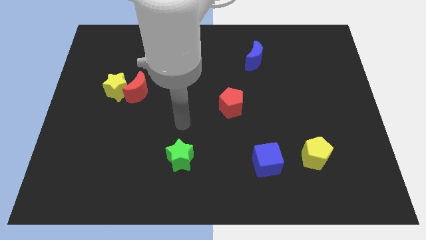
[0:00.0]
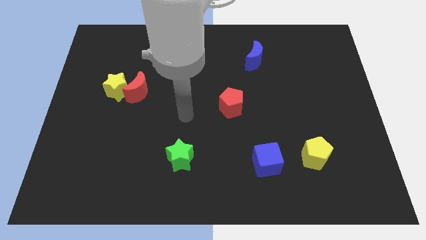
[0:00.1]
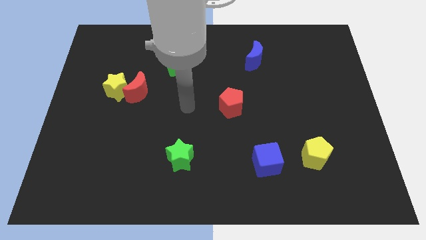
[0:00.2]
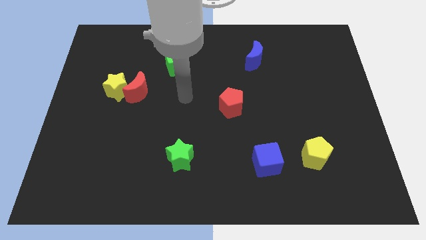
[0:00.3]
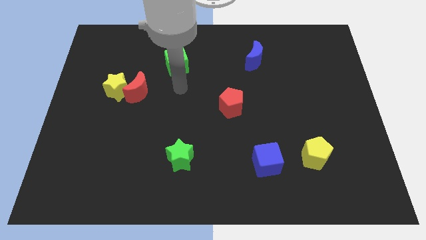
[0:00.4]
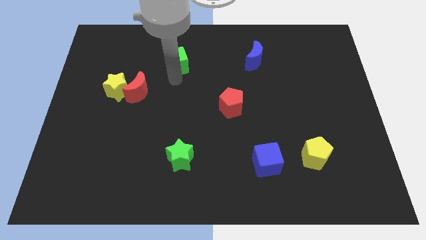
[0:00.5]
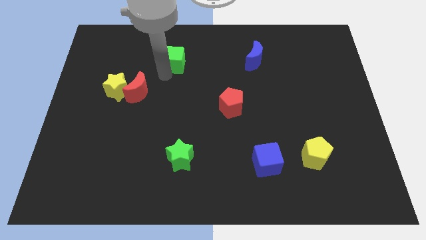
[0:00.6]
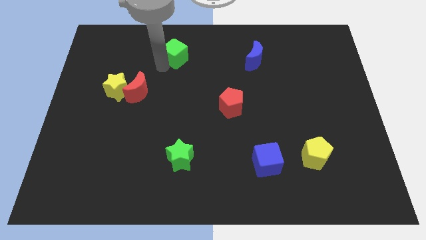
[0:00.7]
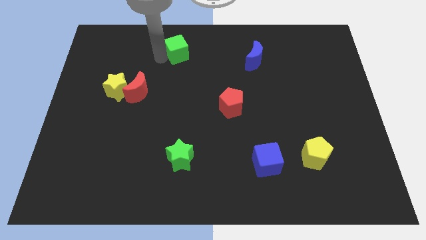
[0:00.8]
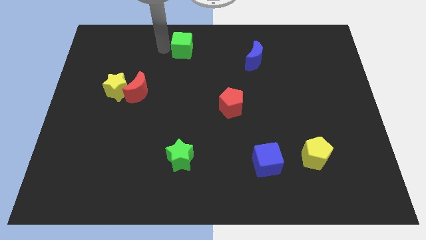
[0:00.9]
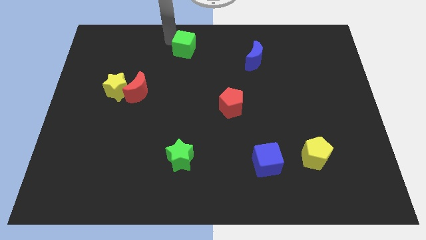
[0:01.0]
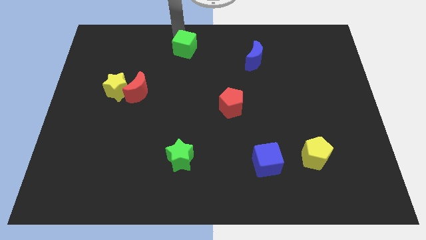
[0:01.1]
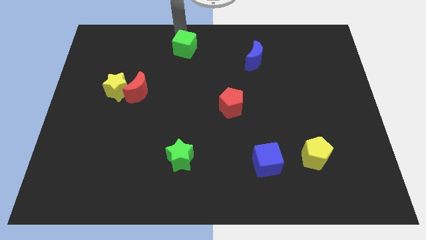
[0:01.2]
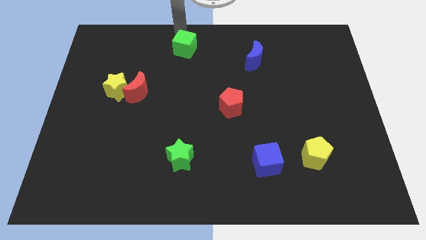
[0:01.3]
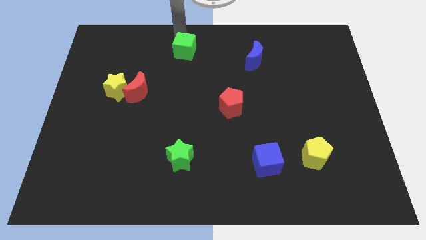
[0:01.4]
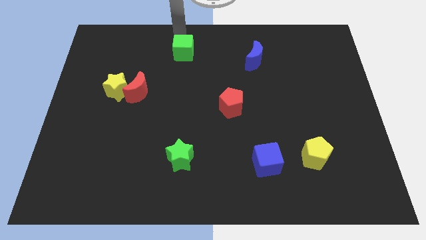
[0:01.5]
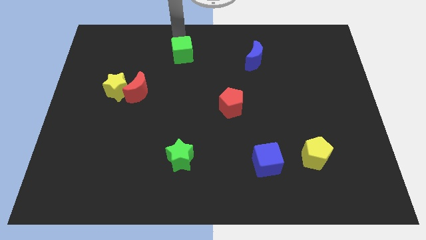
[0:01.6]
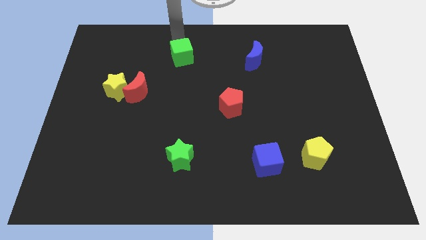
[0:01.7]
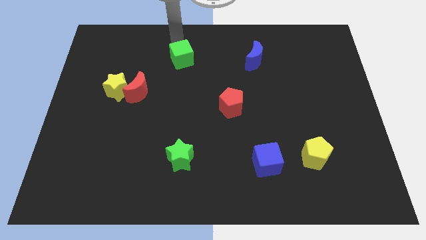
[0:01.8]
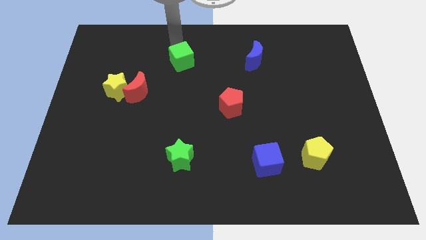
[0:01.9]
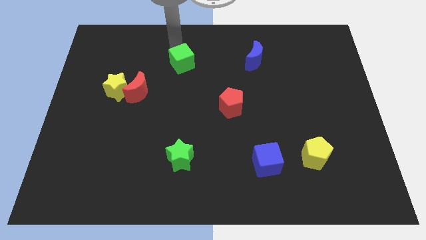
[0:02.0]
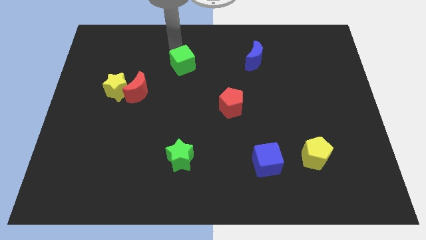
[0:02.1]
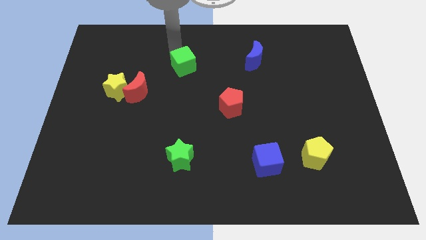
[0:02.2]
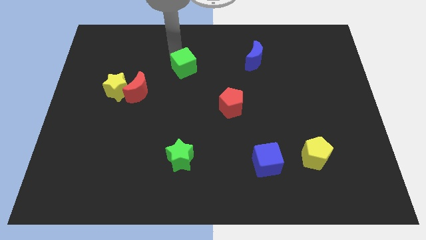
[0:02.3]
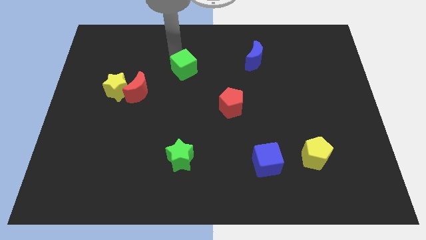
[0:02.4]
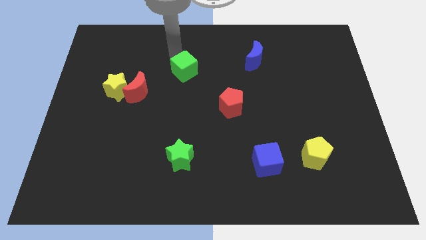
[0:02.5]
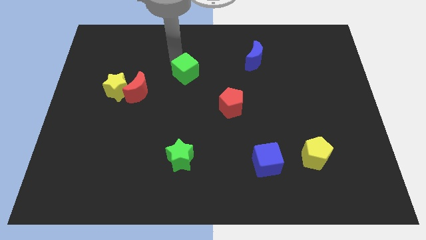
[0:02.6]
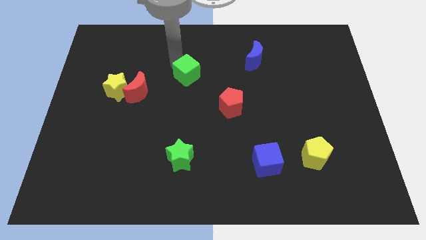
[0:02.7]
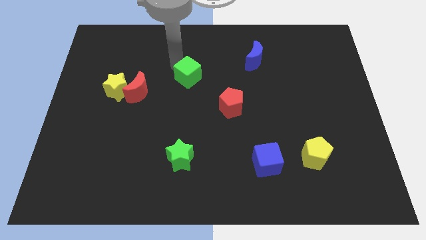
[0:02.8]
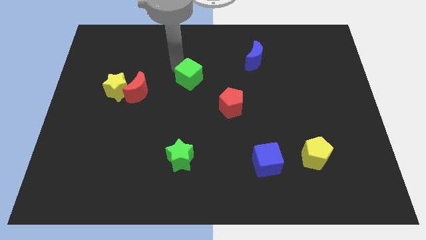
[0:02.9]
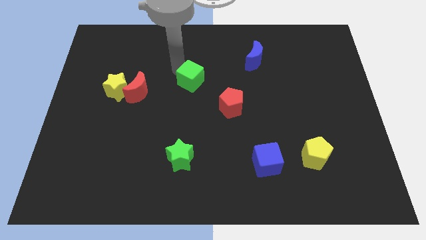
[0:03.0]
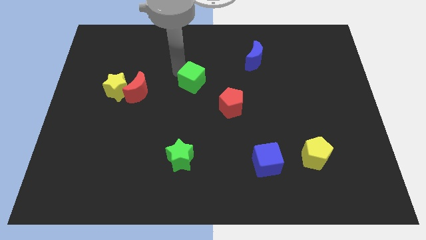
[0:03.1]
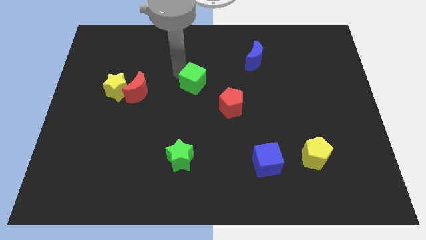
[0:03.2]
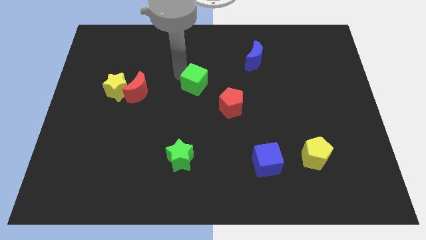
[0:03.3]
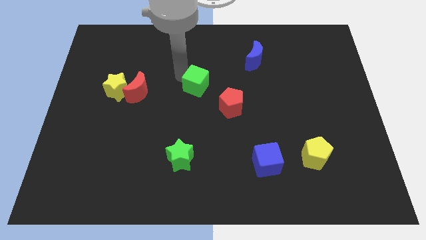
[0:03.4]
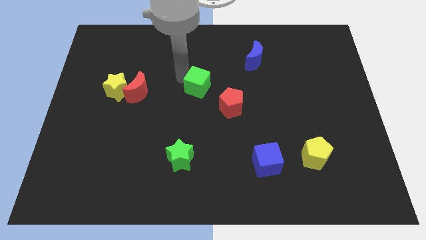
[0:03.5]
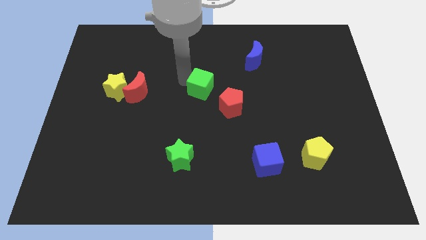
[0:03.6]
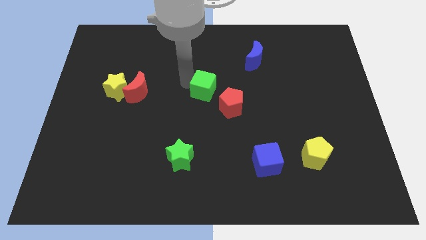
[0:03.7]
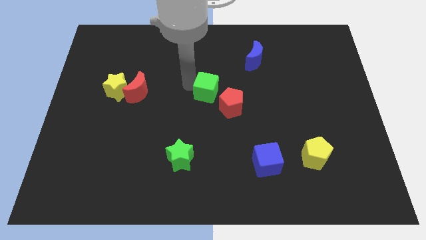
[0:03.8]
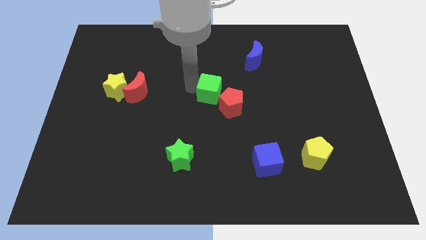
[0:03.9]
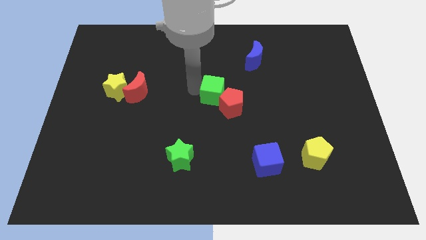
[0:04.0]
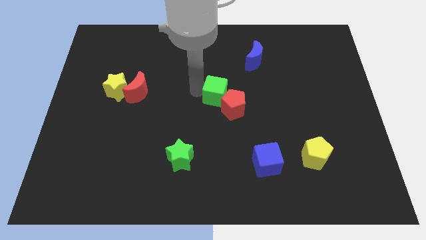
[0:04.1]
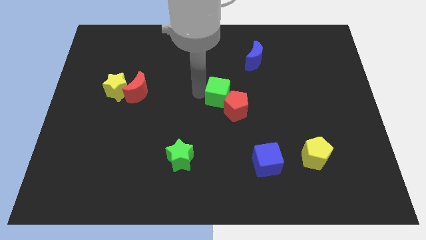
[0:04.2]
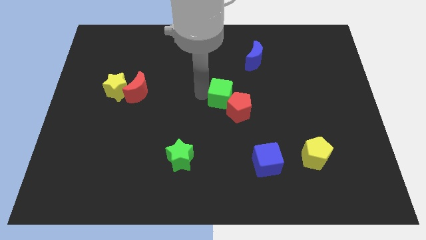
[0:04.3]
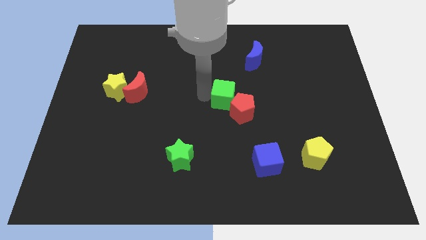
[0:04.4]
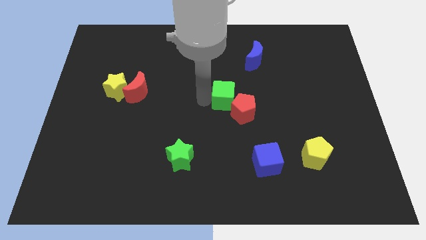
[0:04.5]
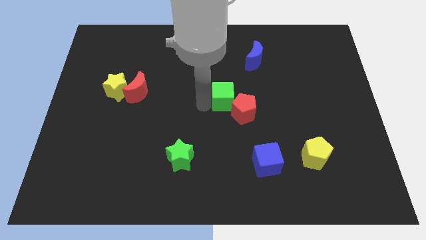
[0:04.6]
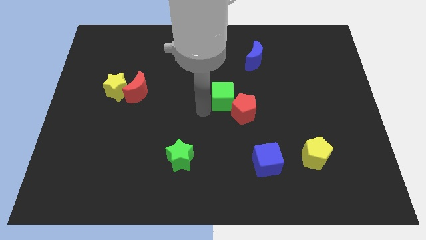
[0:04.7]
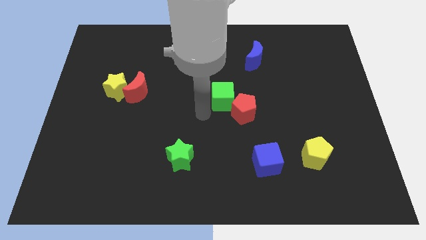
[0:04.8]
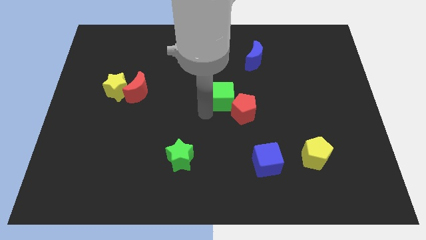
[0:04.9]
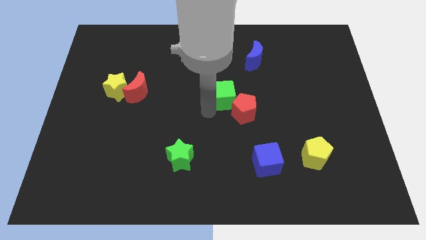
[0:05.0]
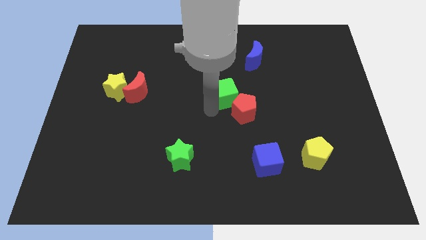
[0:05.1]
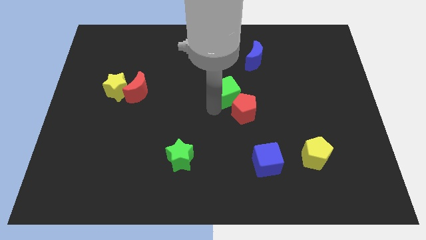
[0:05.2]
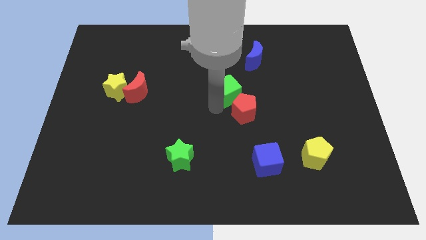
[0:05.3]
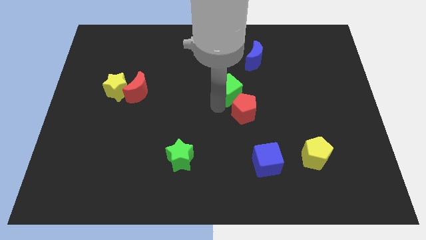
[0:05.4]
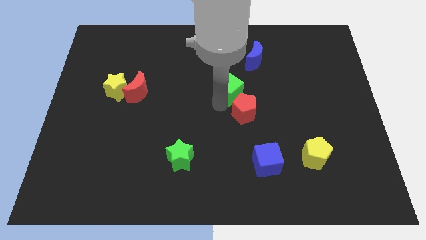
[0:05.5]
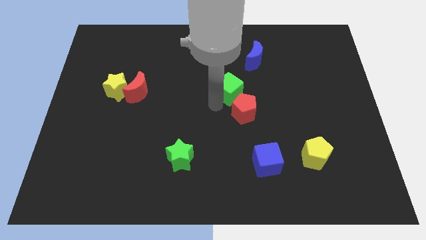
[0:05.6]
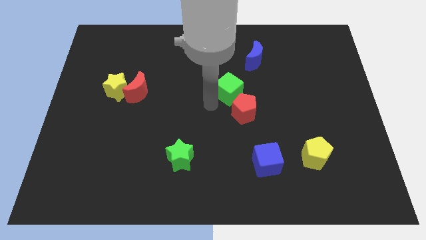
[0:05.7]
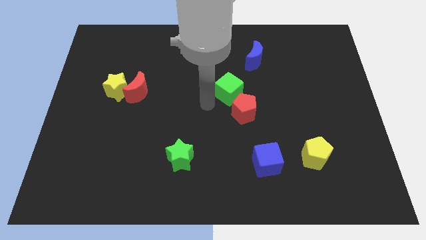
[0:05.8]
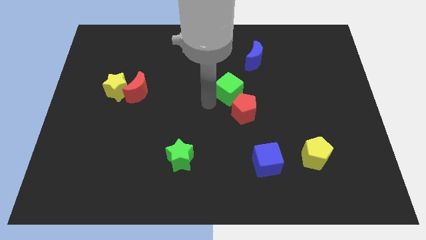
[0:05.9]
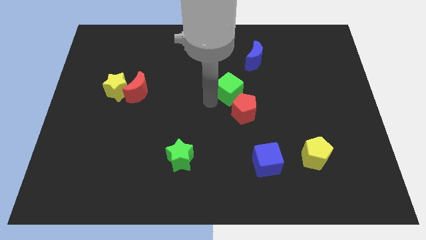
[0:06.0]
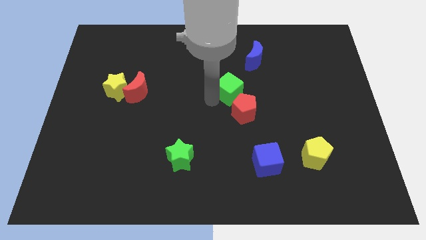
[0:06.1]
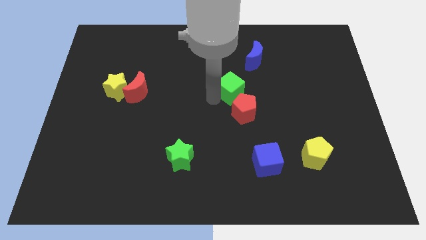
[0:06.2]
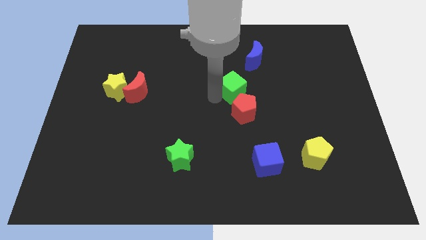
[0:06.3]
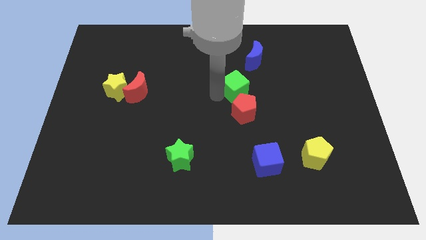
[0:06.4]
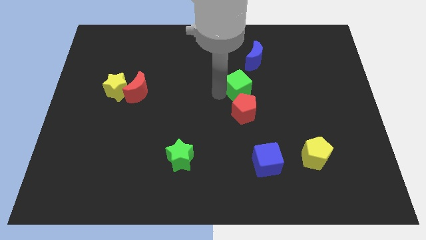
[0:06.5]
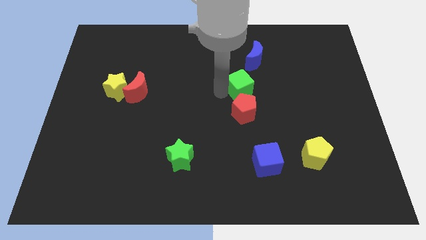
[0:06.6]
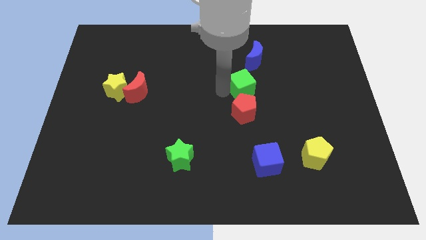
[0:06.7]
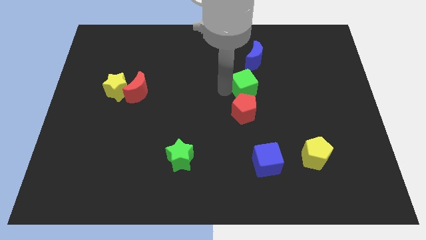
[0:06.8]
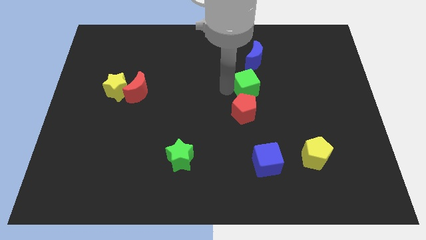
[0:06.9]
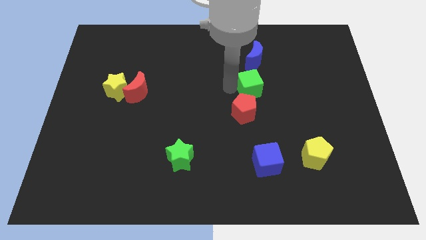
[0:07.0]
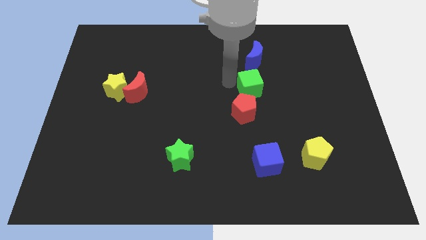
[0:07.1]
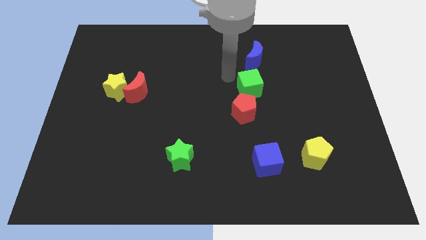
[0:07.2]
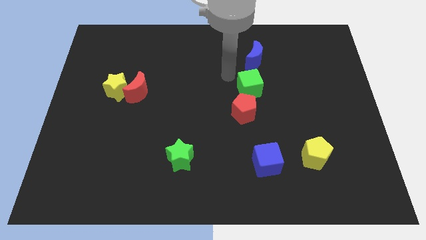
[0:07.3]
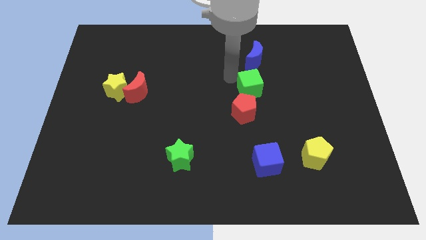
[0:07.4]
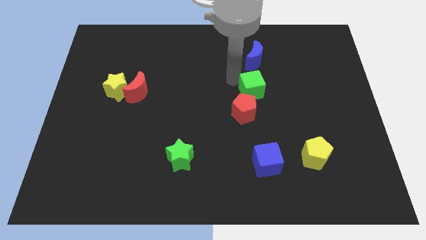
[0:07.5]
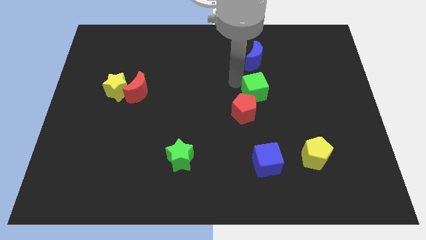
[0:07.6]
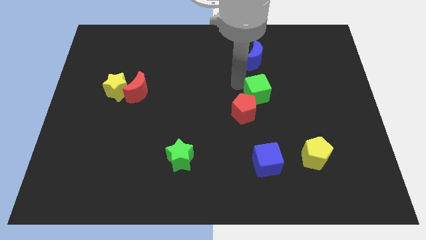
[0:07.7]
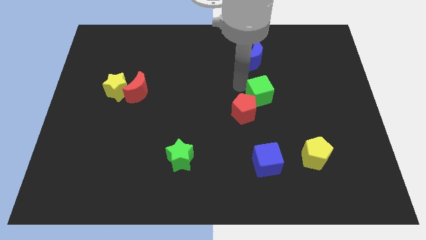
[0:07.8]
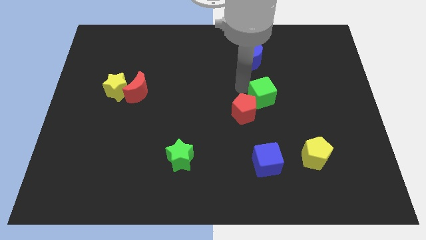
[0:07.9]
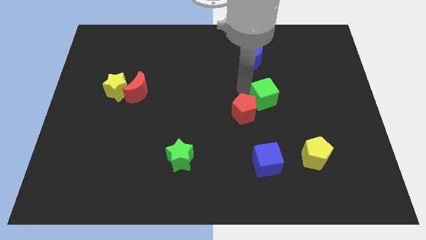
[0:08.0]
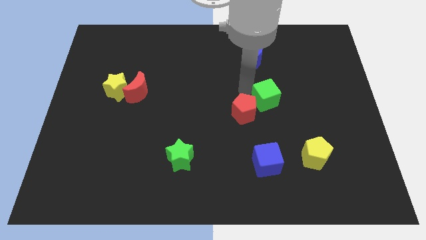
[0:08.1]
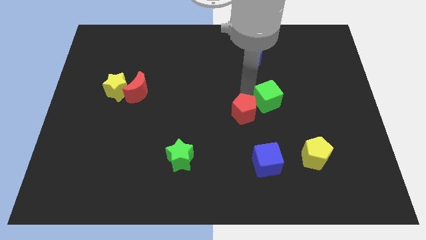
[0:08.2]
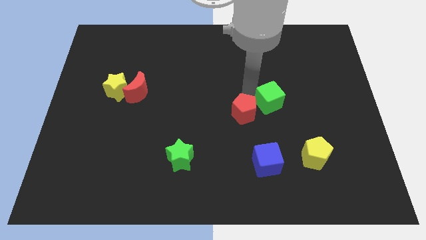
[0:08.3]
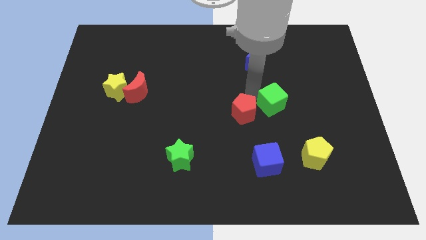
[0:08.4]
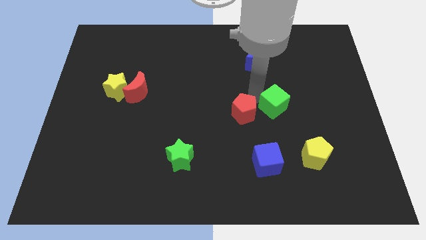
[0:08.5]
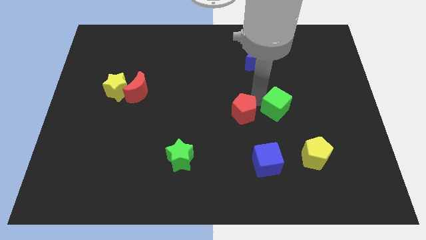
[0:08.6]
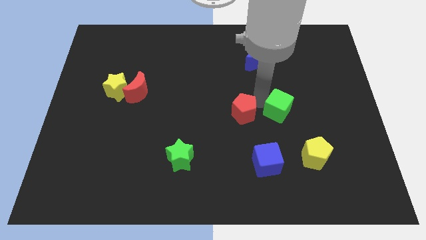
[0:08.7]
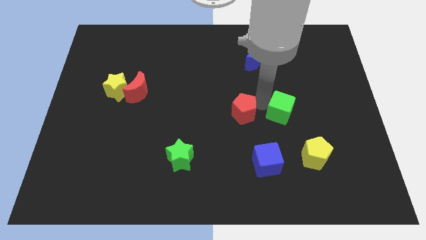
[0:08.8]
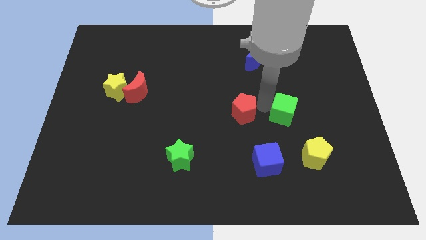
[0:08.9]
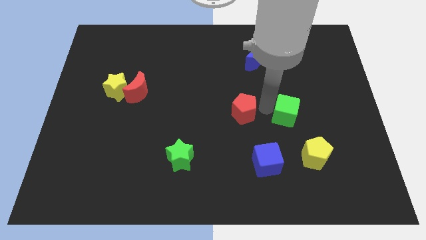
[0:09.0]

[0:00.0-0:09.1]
slide the green cube to the top of the yellow pentagon
